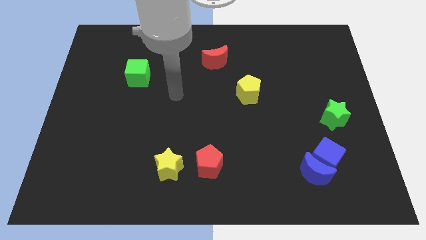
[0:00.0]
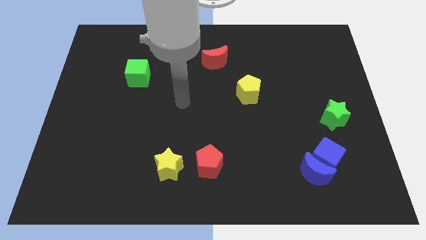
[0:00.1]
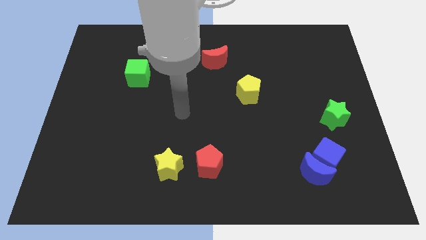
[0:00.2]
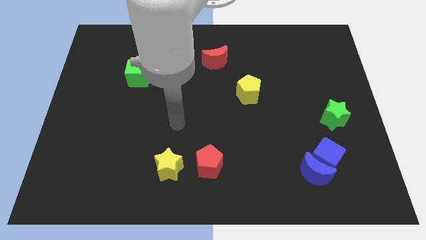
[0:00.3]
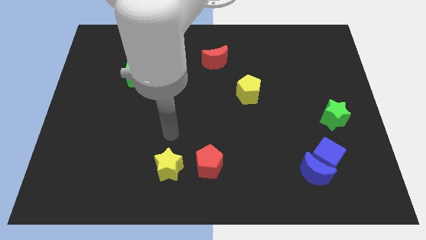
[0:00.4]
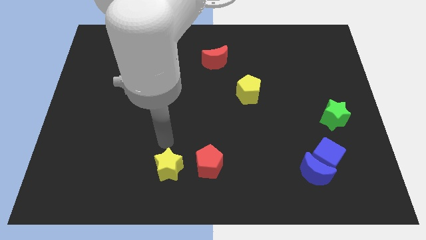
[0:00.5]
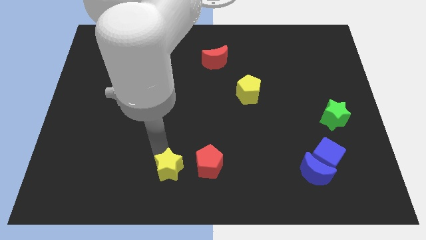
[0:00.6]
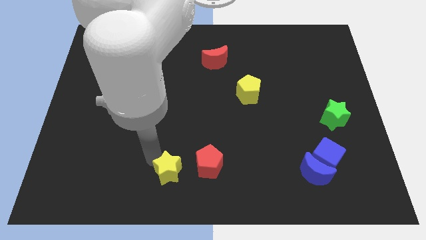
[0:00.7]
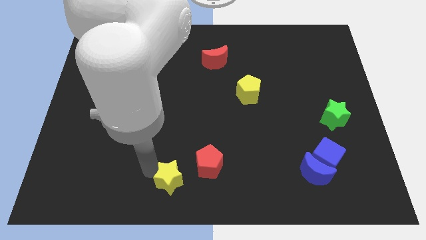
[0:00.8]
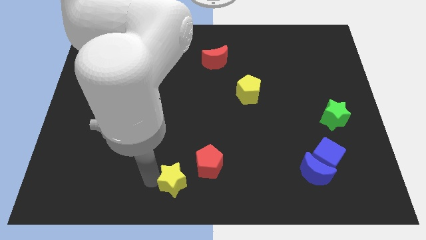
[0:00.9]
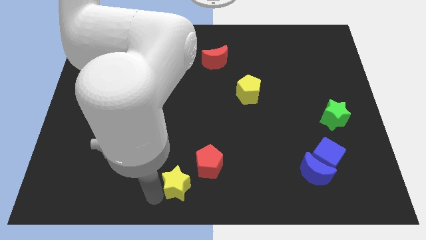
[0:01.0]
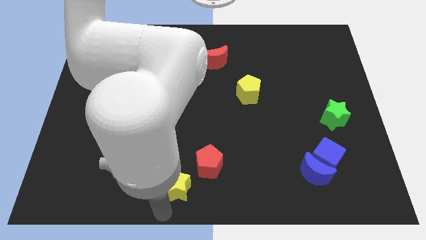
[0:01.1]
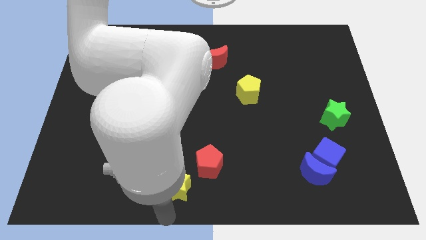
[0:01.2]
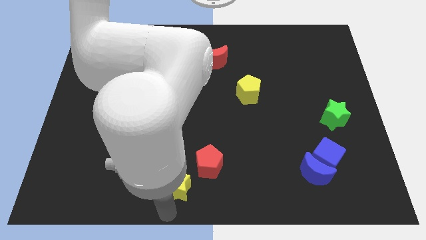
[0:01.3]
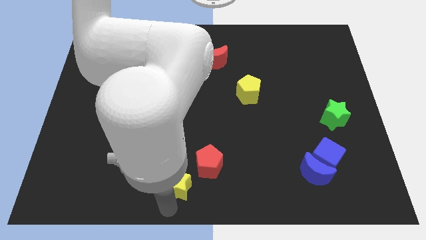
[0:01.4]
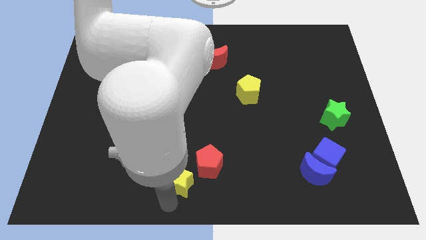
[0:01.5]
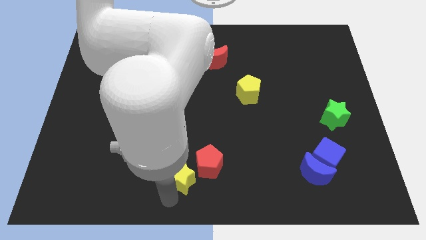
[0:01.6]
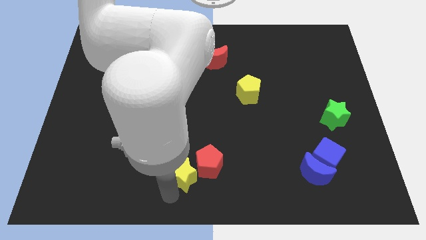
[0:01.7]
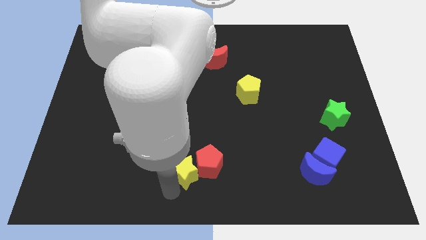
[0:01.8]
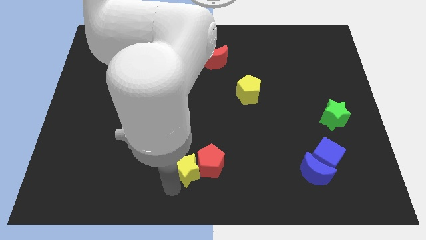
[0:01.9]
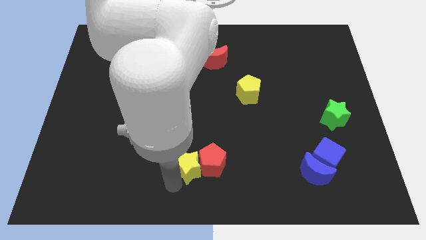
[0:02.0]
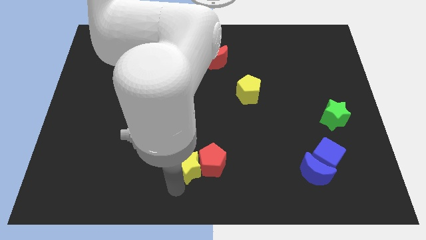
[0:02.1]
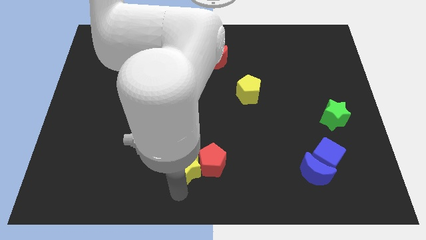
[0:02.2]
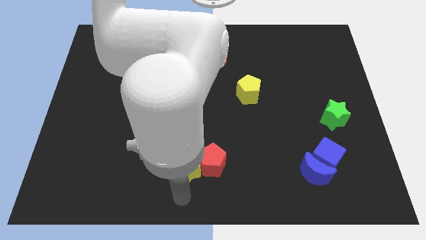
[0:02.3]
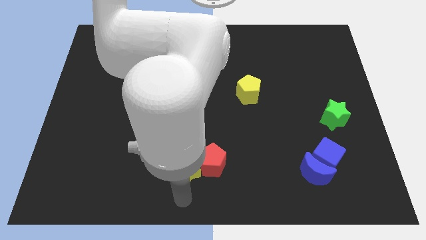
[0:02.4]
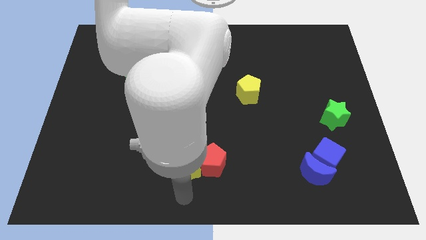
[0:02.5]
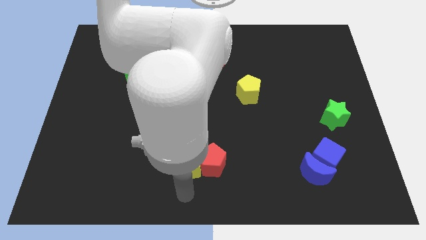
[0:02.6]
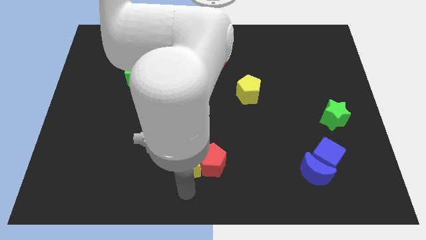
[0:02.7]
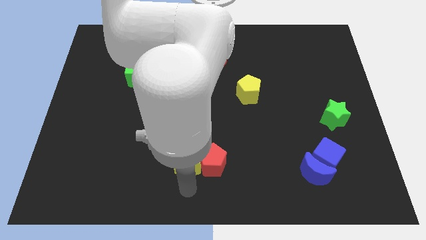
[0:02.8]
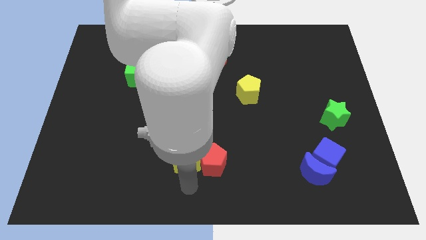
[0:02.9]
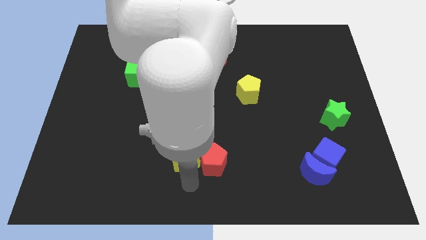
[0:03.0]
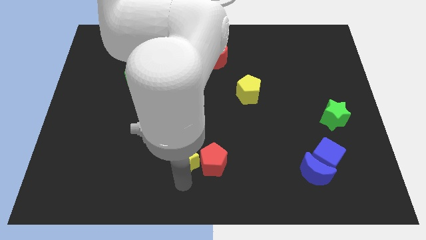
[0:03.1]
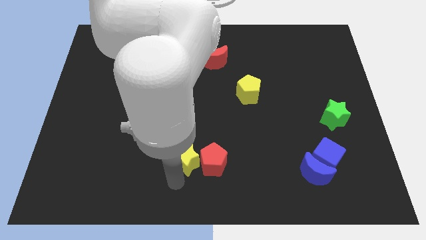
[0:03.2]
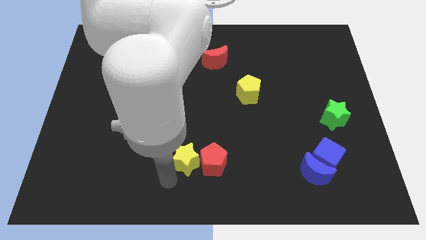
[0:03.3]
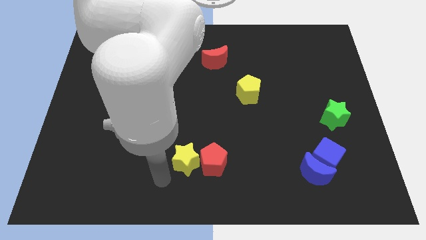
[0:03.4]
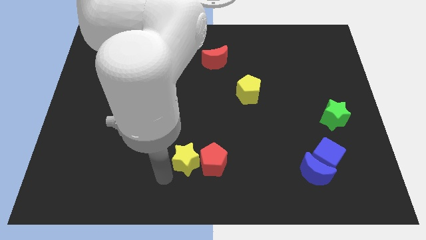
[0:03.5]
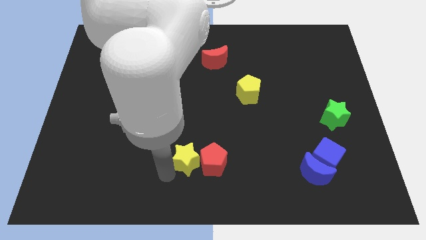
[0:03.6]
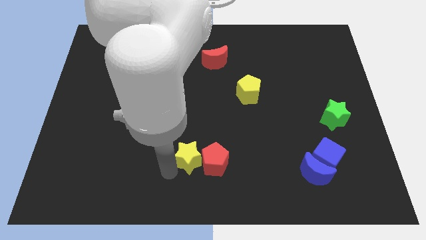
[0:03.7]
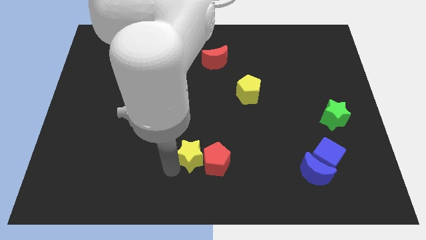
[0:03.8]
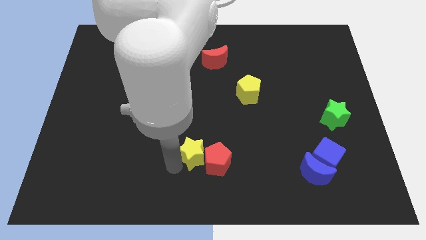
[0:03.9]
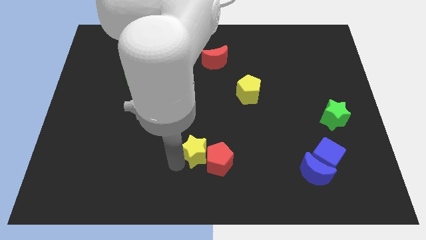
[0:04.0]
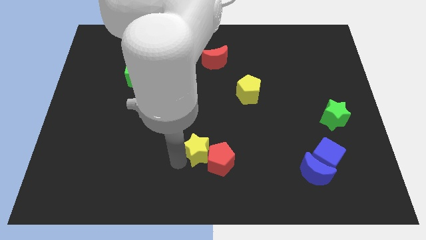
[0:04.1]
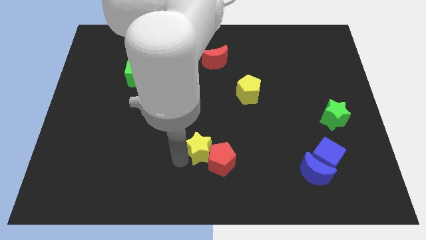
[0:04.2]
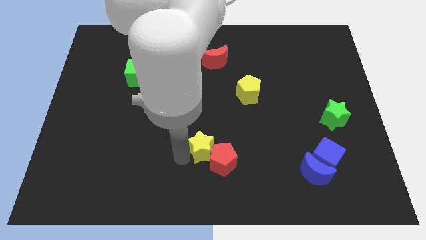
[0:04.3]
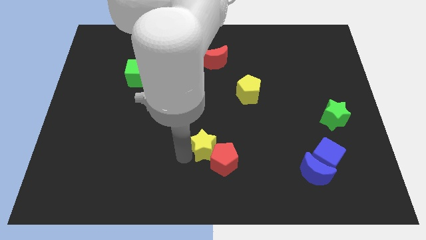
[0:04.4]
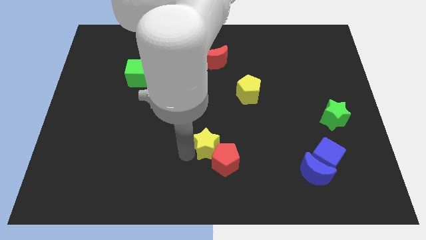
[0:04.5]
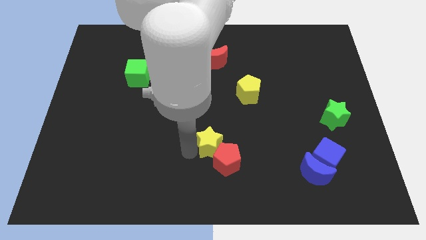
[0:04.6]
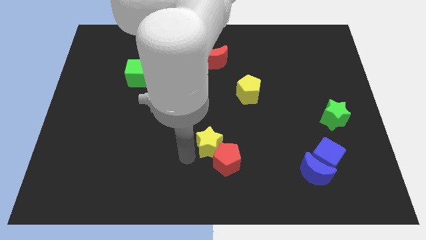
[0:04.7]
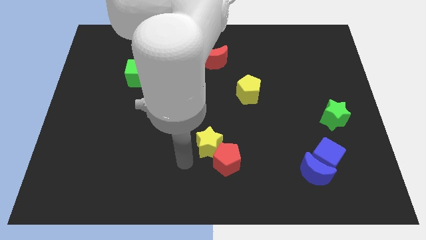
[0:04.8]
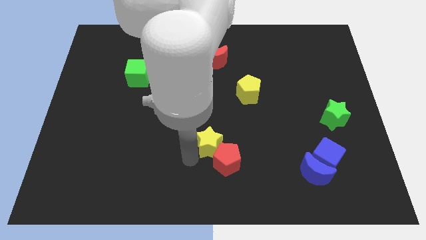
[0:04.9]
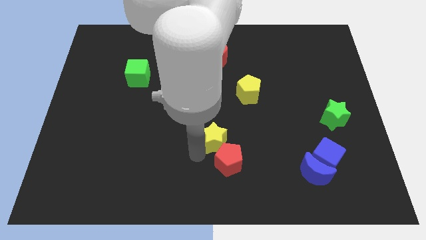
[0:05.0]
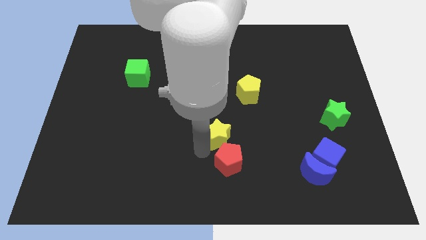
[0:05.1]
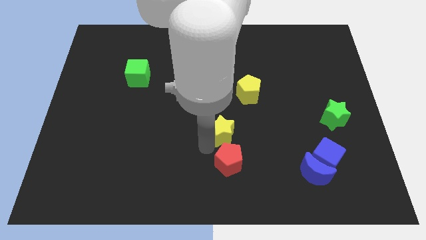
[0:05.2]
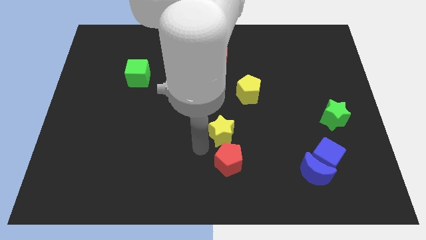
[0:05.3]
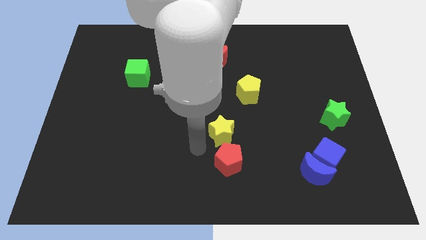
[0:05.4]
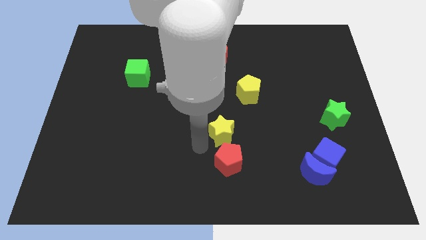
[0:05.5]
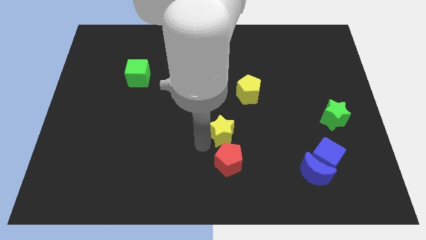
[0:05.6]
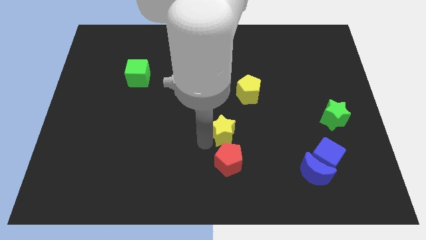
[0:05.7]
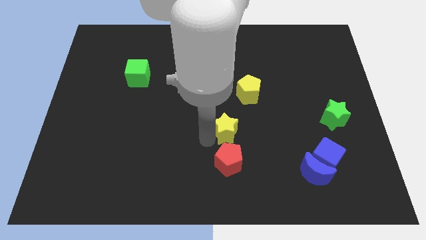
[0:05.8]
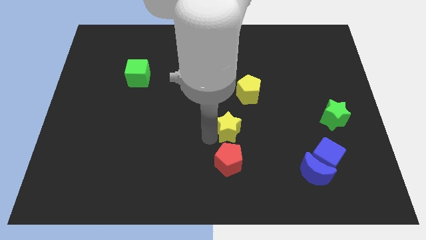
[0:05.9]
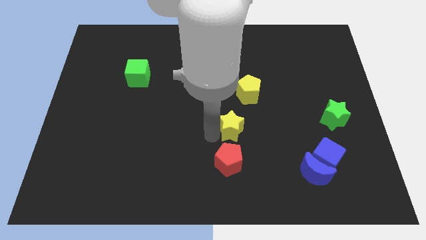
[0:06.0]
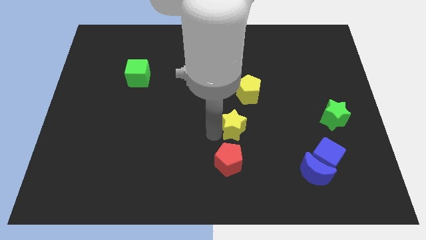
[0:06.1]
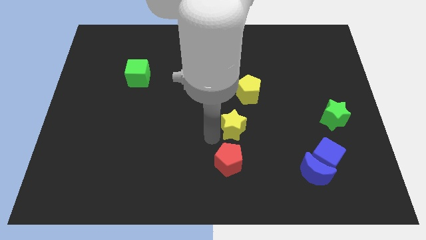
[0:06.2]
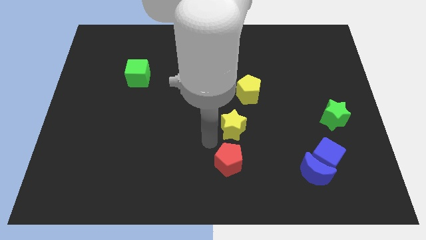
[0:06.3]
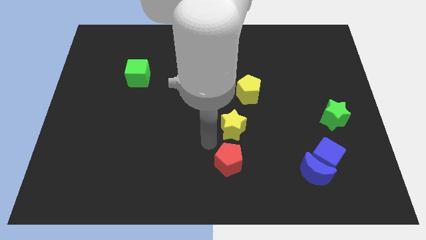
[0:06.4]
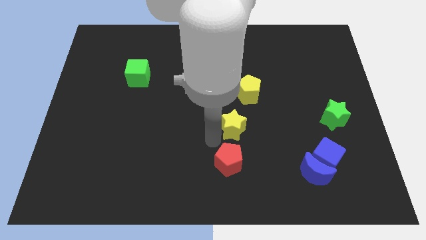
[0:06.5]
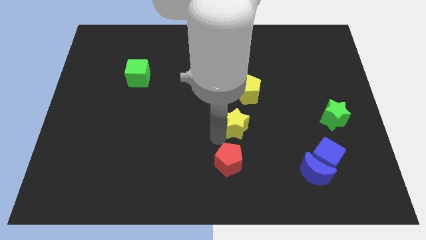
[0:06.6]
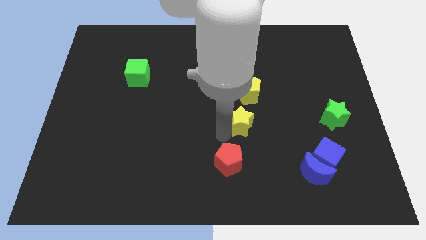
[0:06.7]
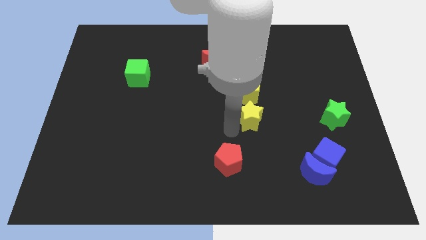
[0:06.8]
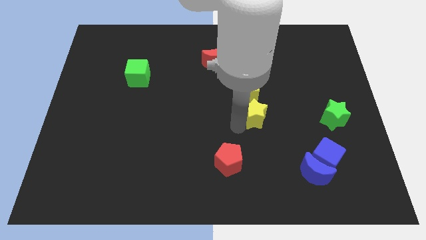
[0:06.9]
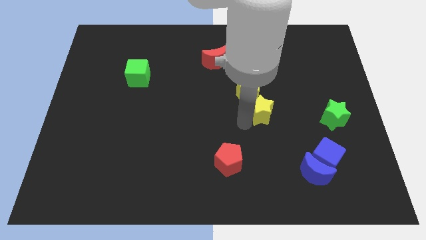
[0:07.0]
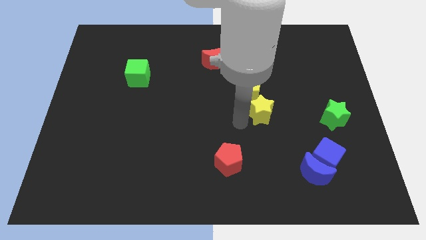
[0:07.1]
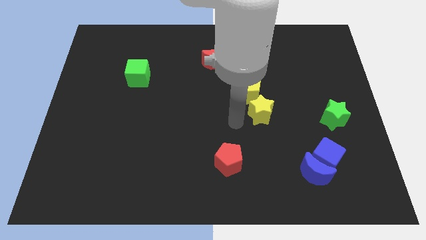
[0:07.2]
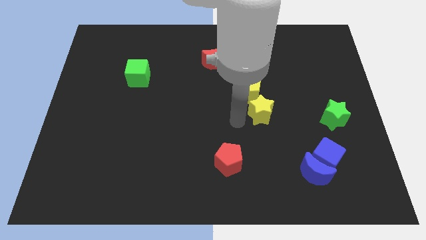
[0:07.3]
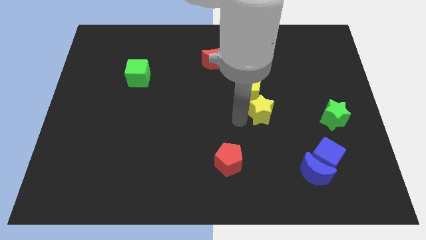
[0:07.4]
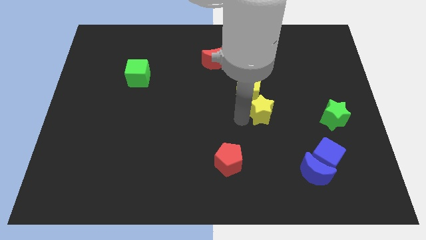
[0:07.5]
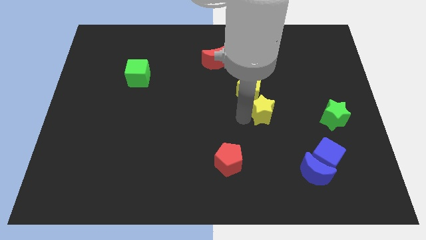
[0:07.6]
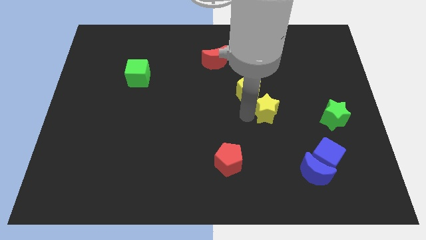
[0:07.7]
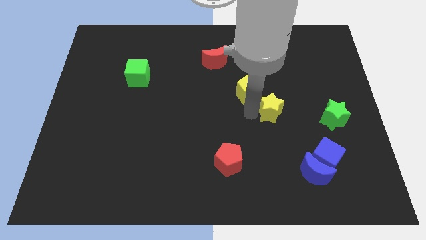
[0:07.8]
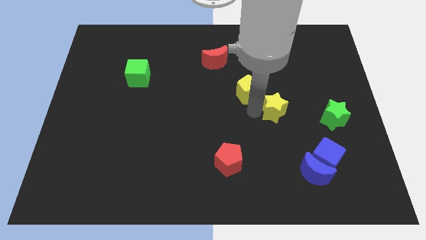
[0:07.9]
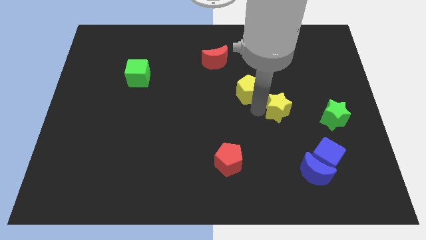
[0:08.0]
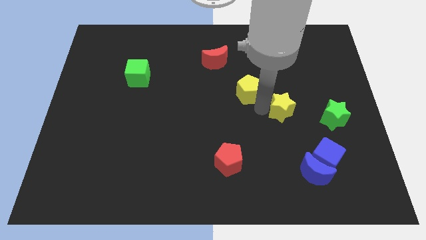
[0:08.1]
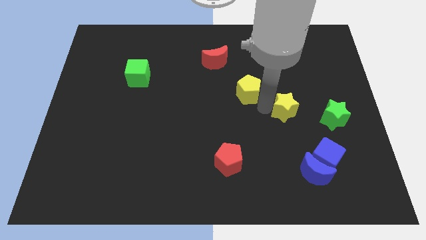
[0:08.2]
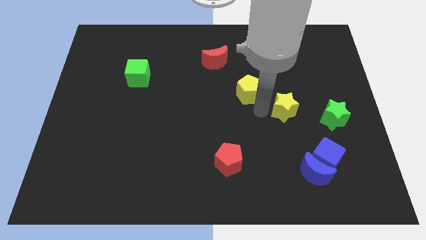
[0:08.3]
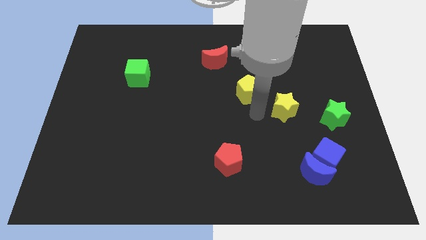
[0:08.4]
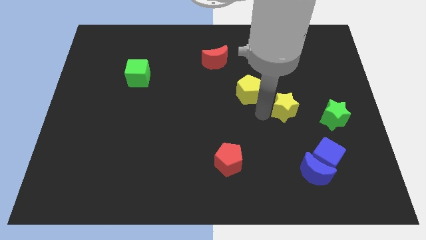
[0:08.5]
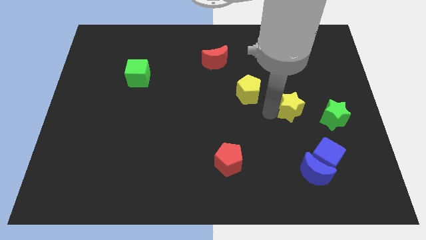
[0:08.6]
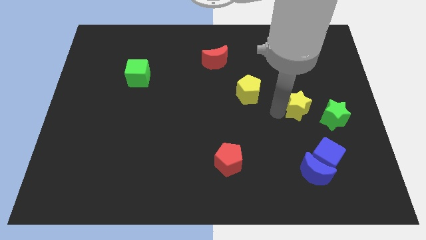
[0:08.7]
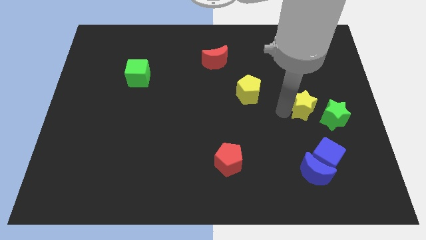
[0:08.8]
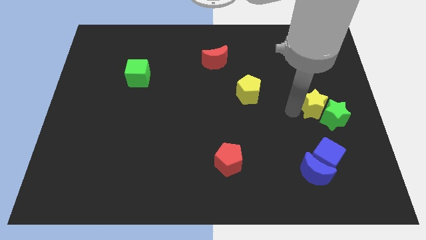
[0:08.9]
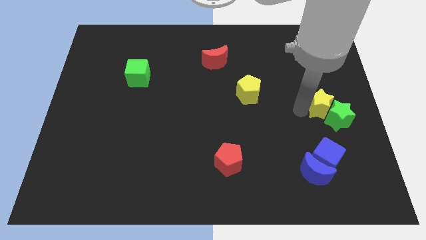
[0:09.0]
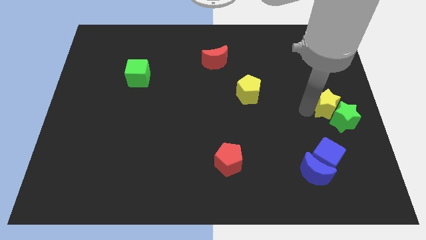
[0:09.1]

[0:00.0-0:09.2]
slide the yellow star to the right side of the board
